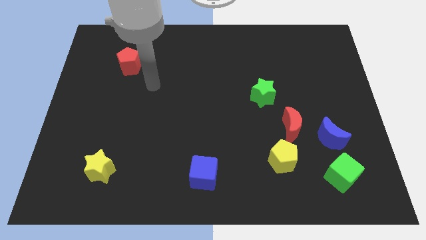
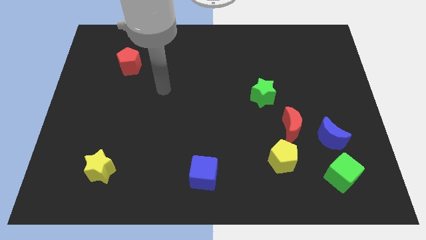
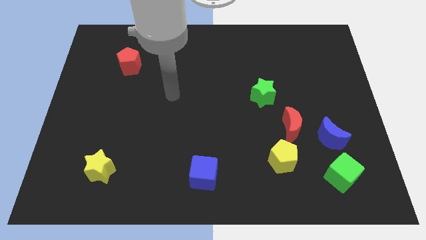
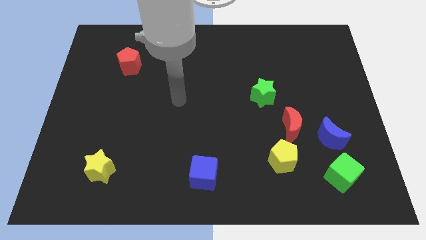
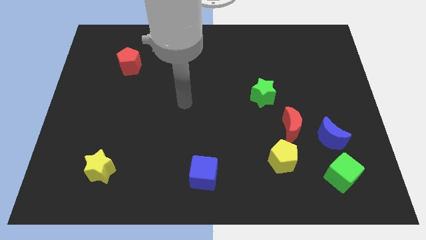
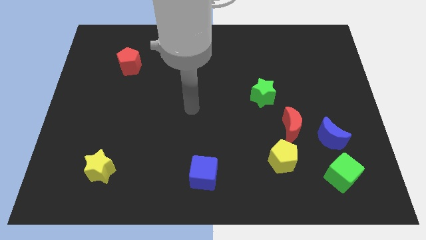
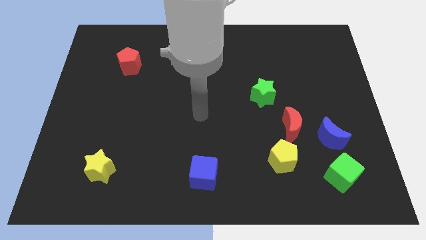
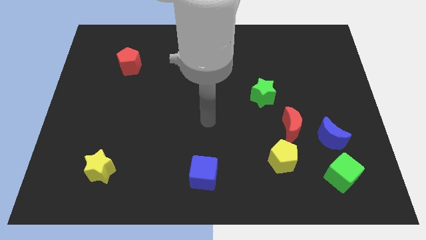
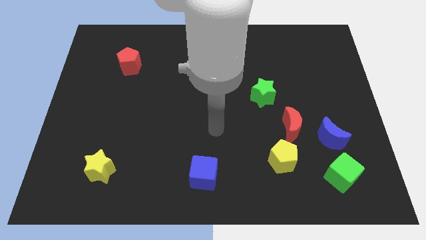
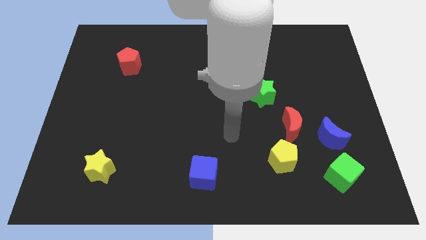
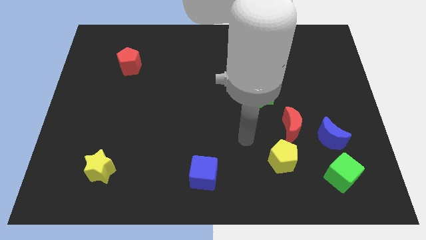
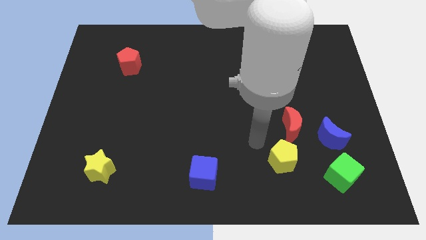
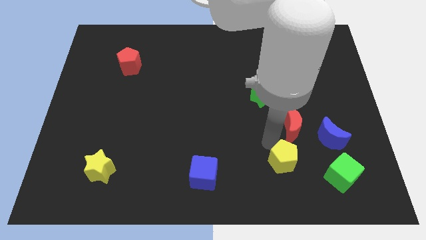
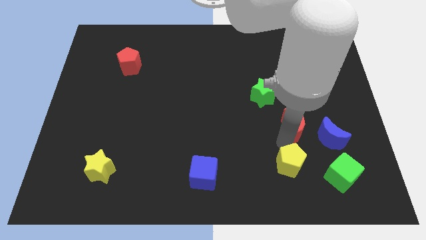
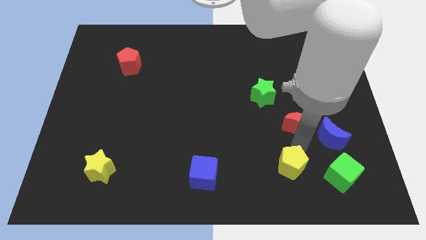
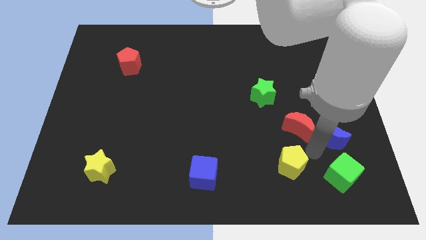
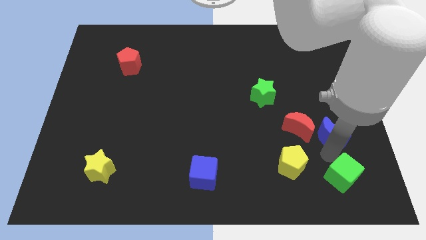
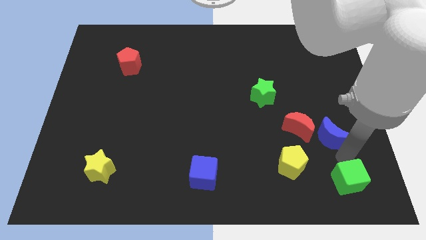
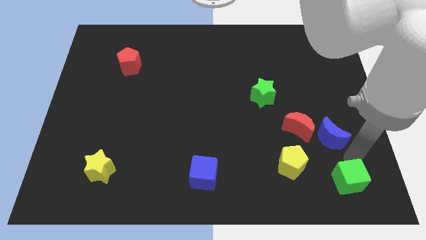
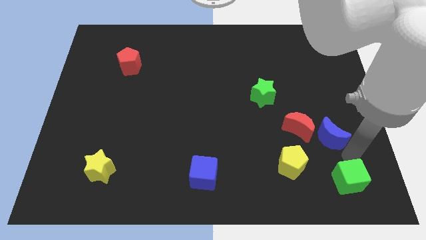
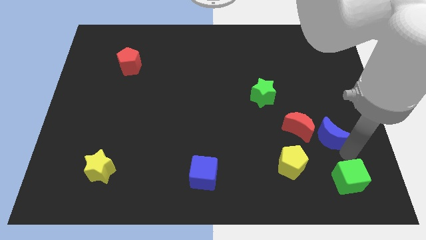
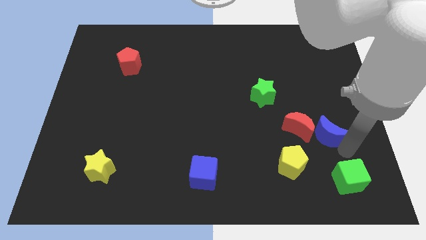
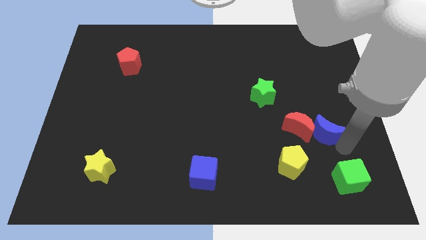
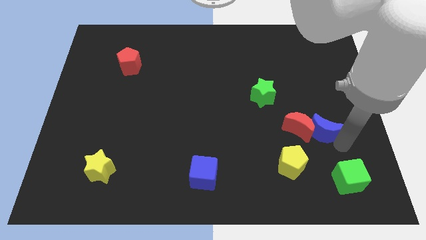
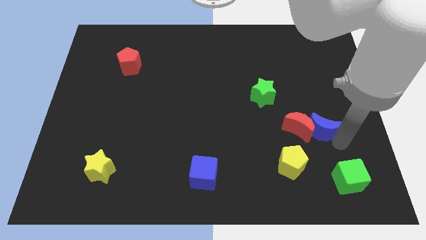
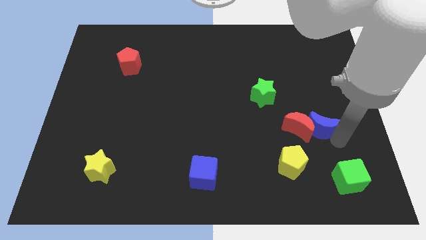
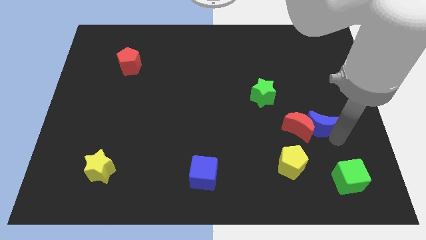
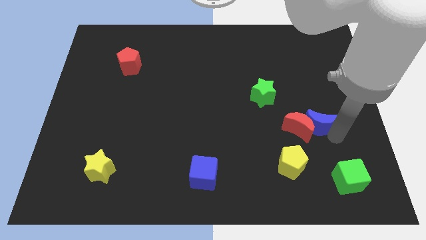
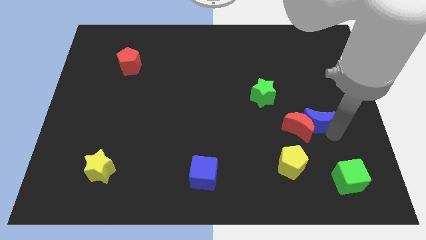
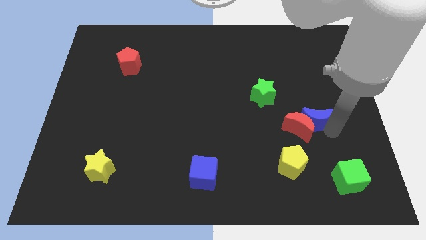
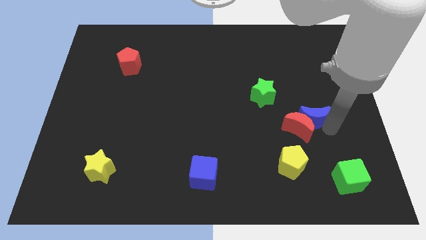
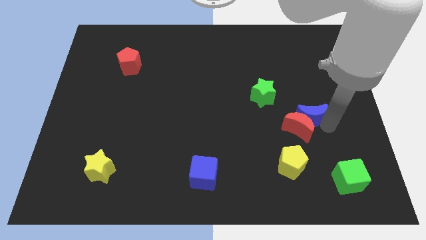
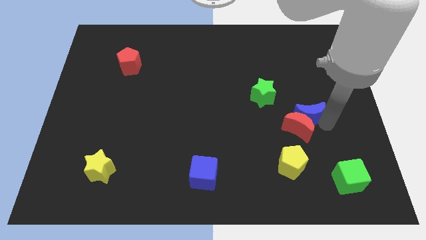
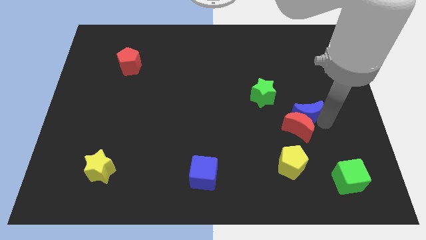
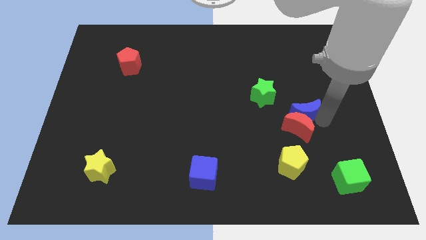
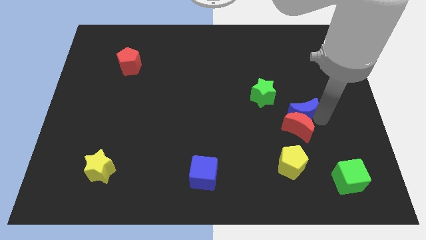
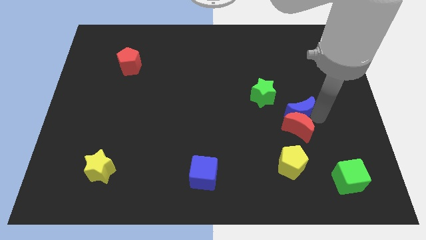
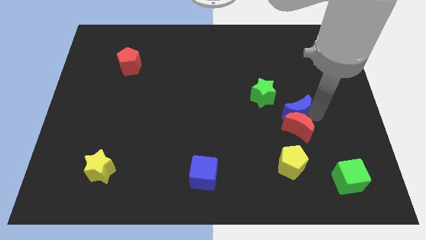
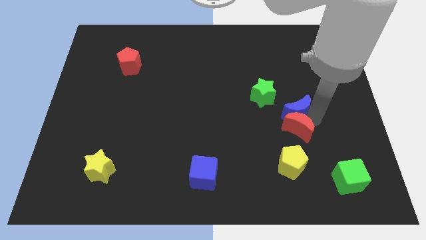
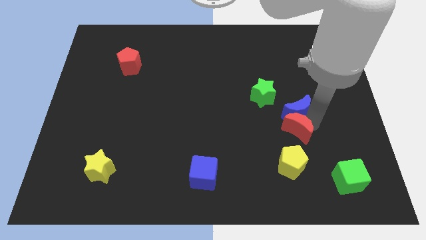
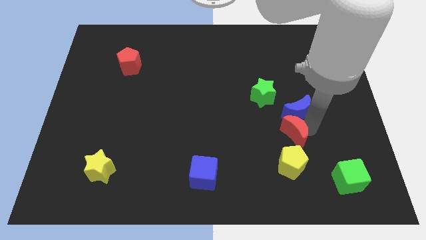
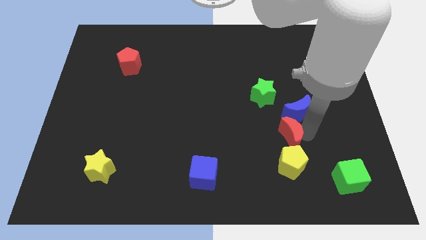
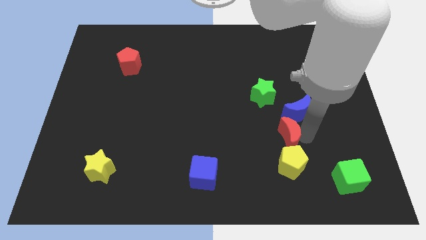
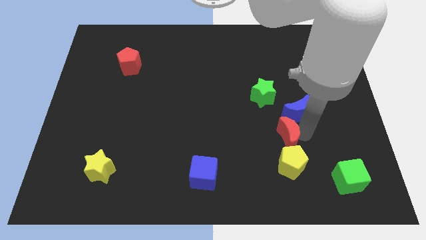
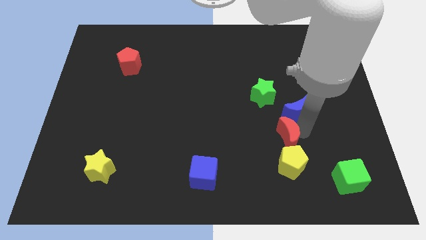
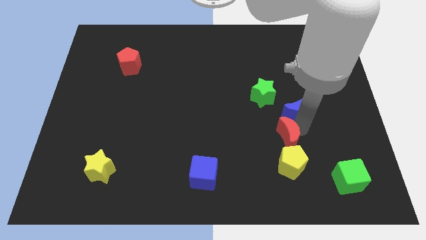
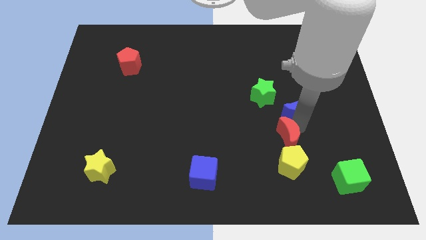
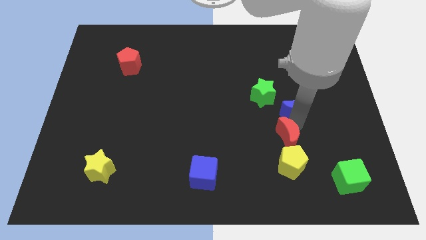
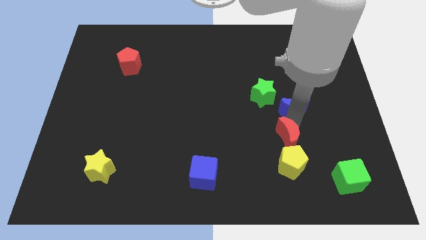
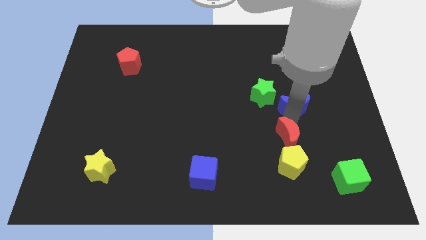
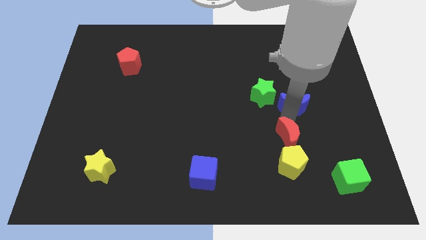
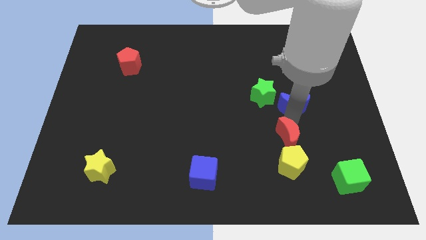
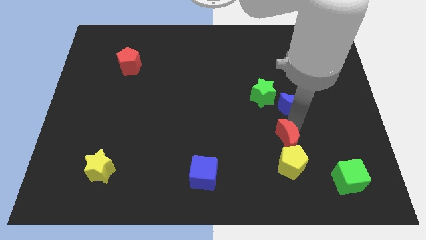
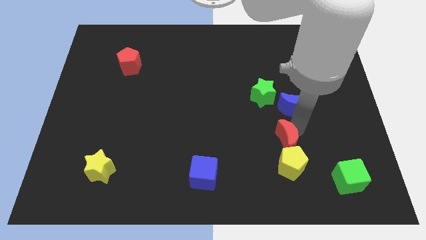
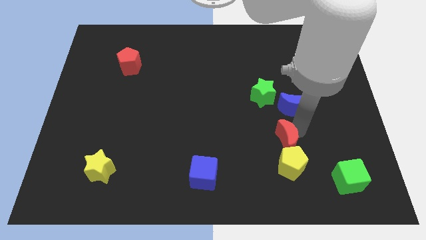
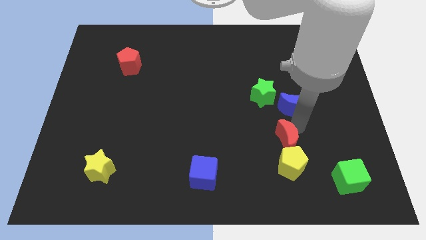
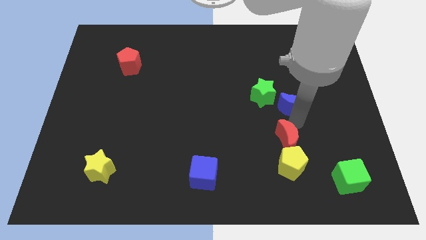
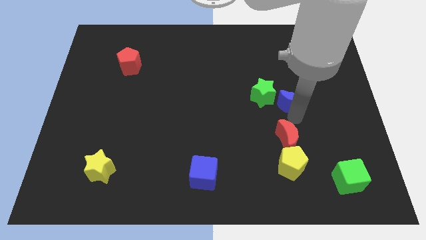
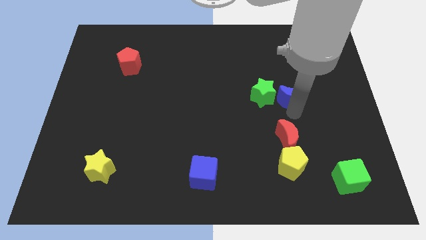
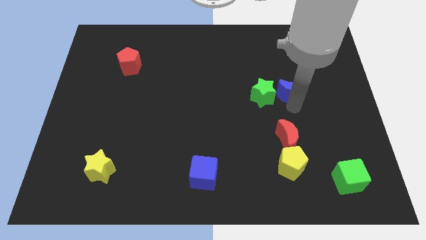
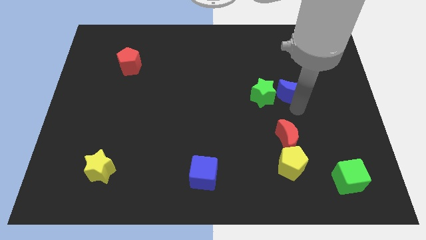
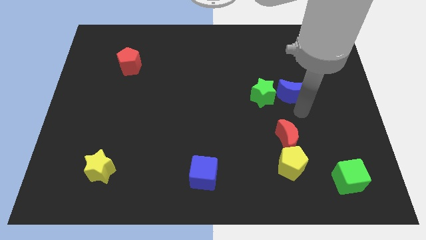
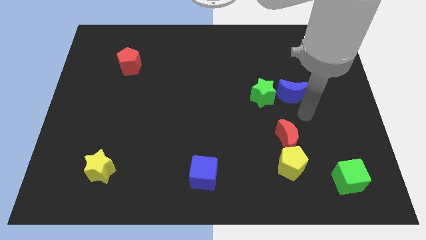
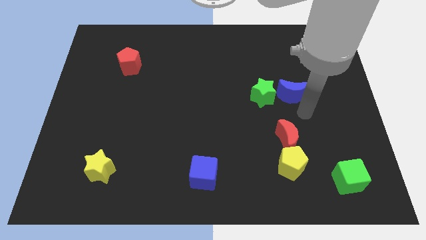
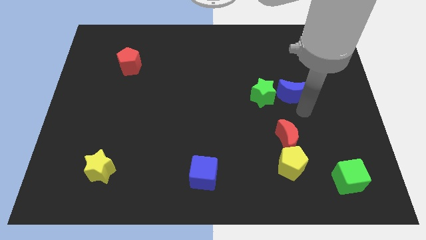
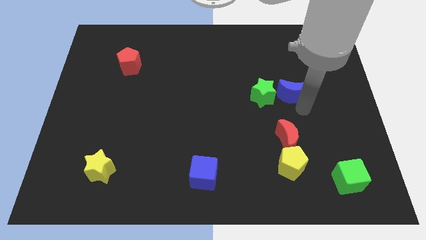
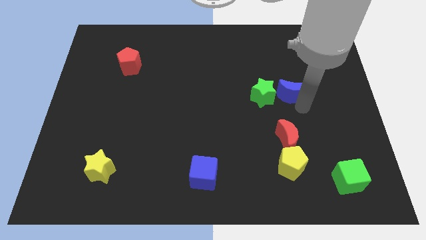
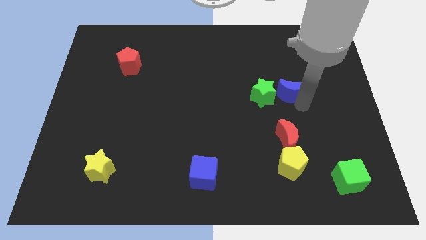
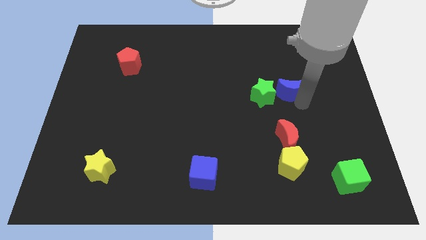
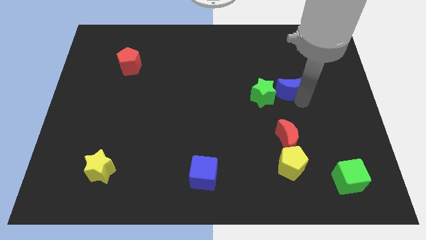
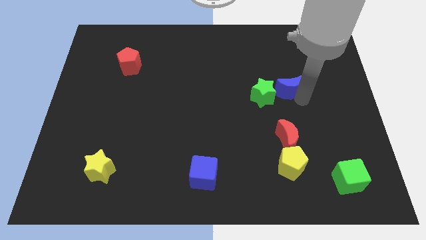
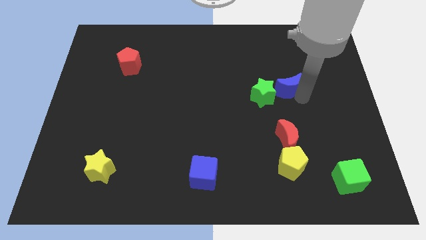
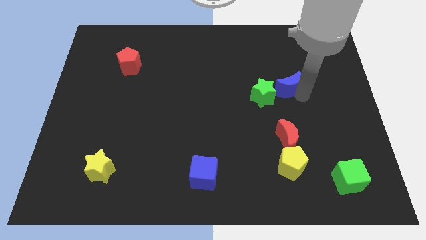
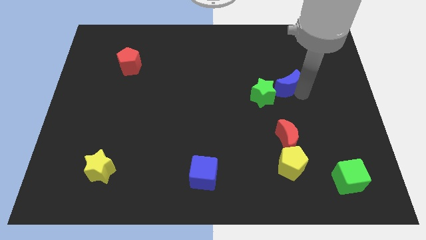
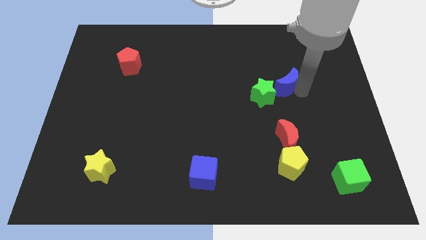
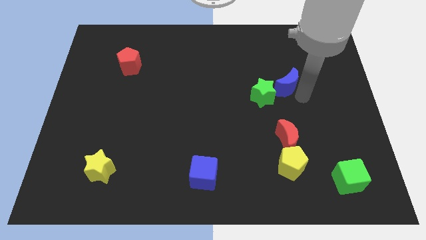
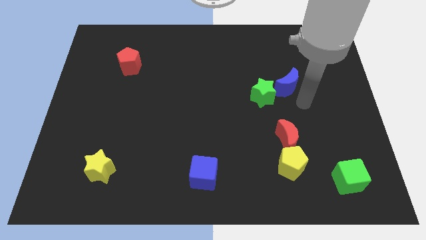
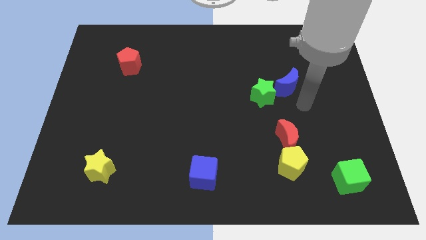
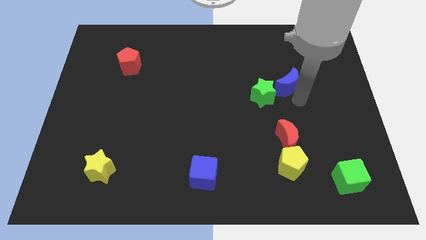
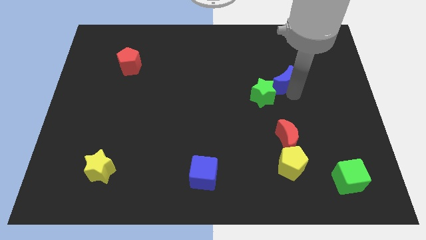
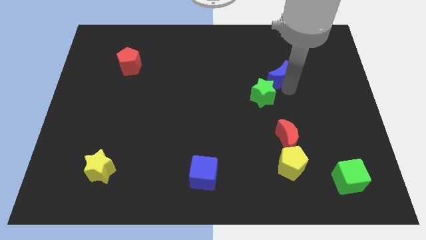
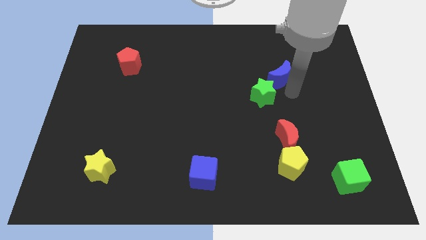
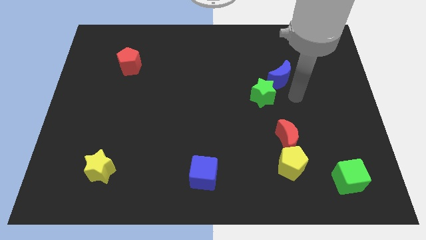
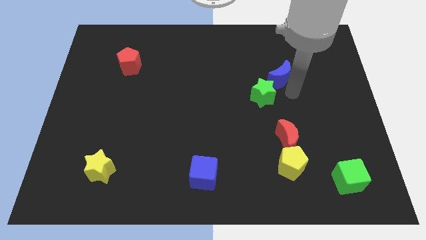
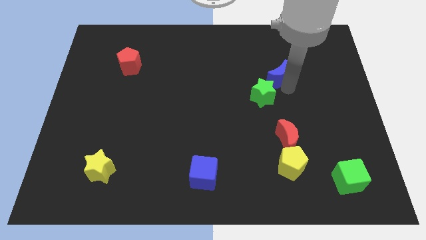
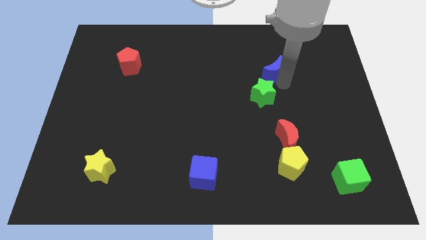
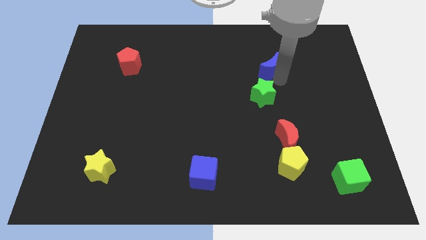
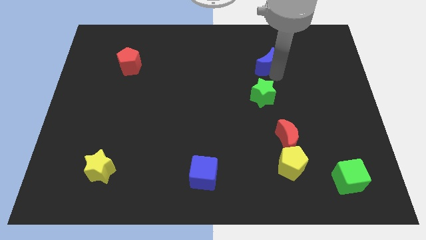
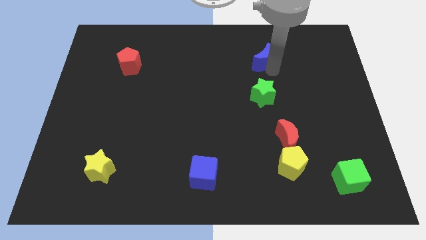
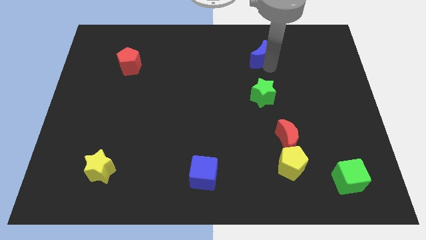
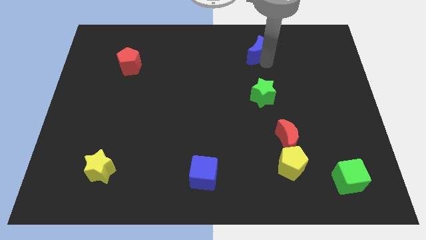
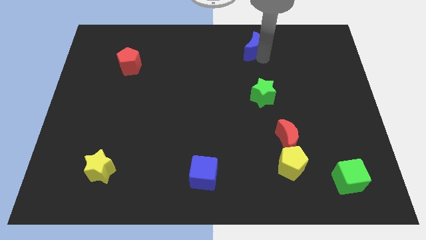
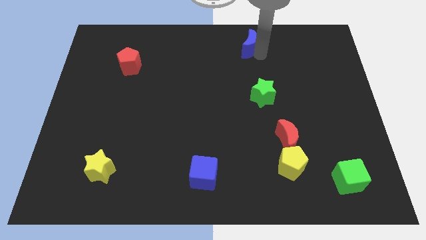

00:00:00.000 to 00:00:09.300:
put the blue moon to the towards your base
